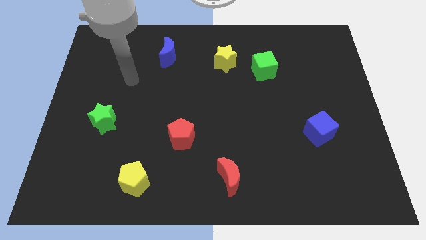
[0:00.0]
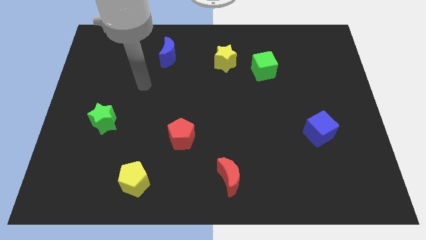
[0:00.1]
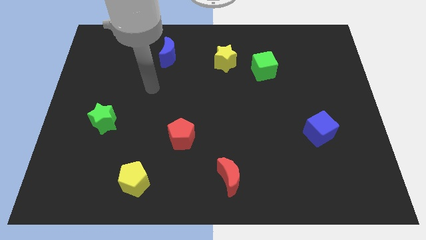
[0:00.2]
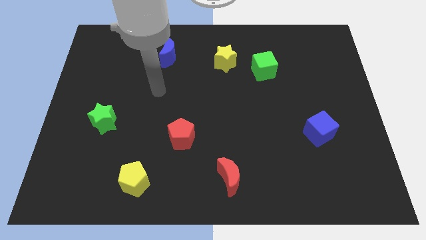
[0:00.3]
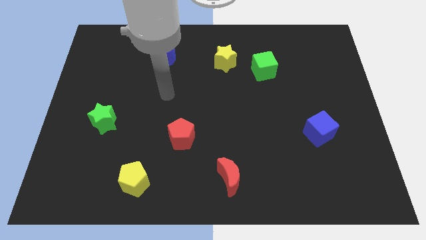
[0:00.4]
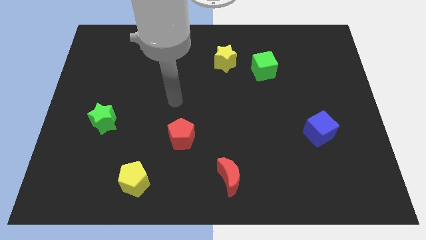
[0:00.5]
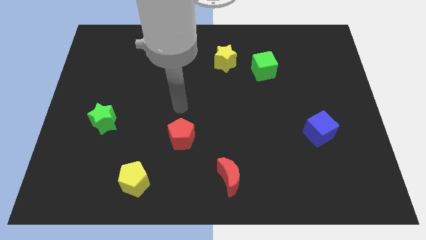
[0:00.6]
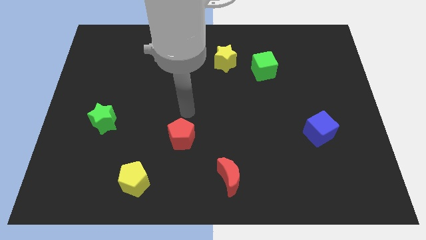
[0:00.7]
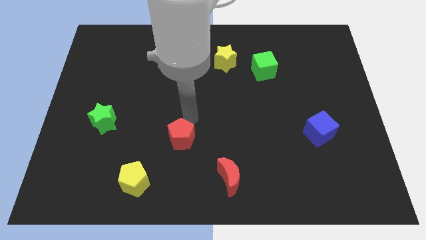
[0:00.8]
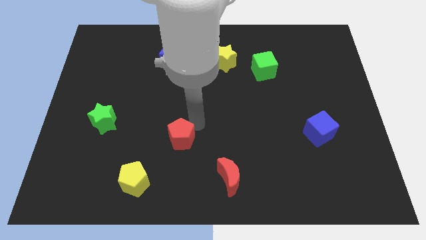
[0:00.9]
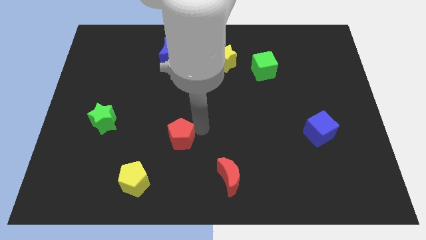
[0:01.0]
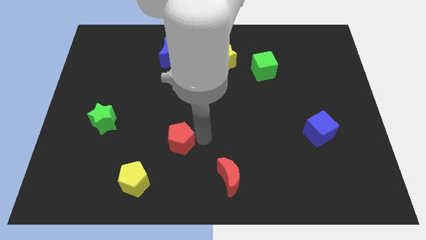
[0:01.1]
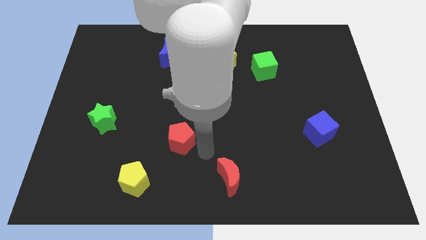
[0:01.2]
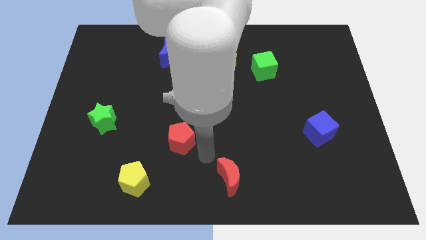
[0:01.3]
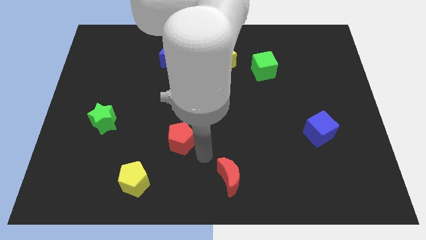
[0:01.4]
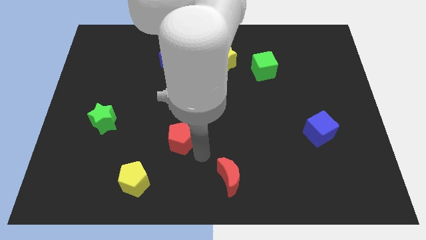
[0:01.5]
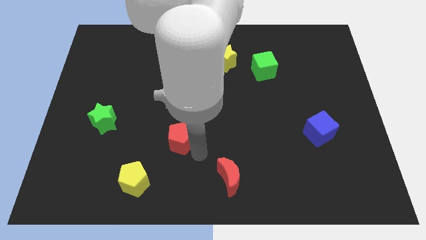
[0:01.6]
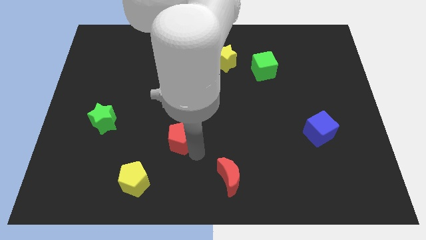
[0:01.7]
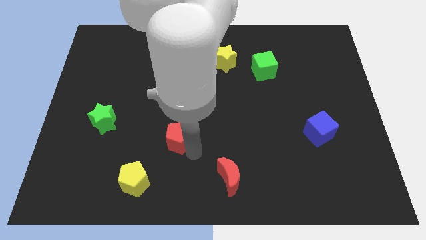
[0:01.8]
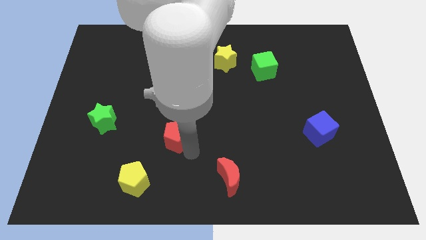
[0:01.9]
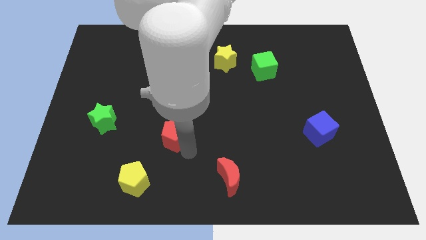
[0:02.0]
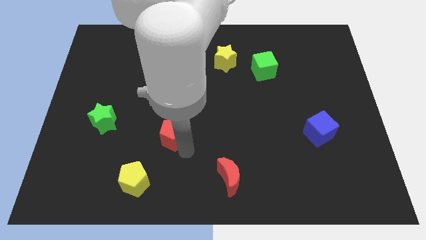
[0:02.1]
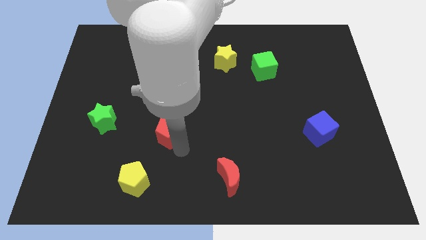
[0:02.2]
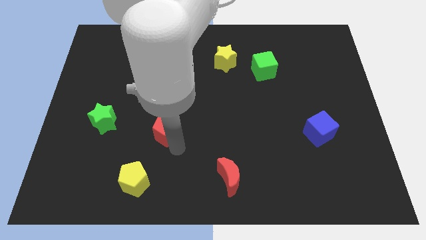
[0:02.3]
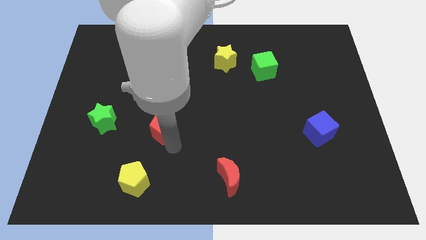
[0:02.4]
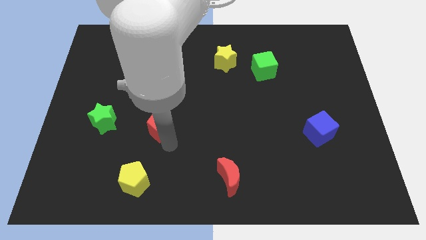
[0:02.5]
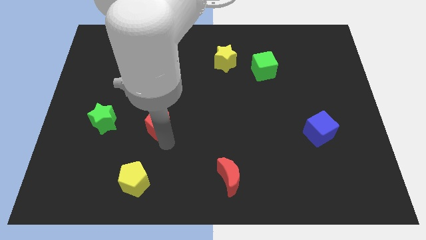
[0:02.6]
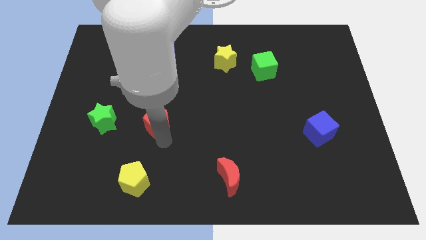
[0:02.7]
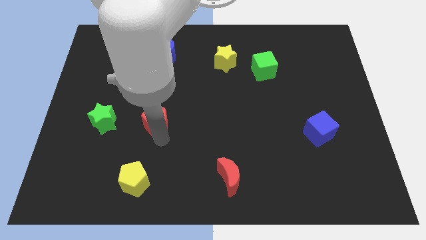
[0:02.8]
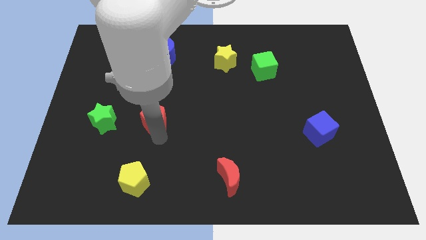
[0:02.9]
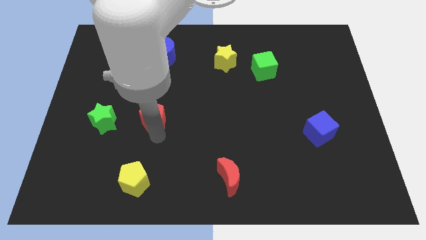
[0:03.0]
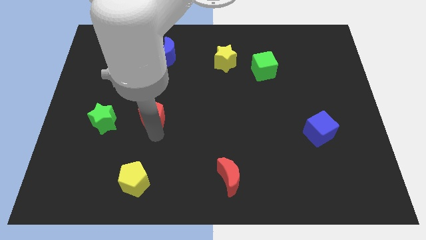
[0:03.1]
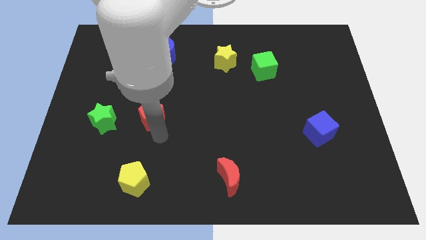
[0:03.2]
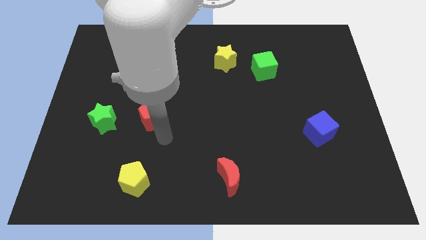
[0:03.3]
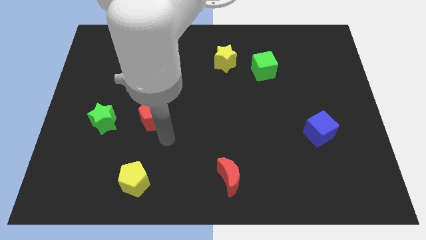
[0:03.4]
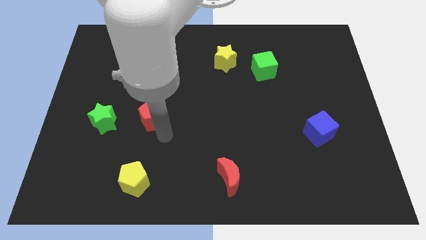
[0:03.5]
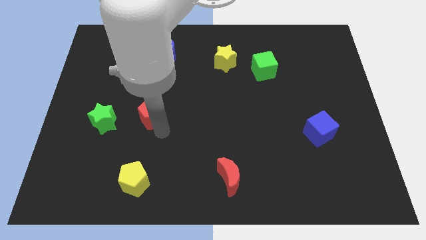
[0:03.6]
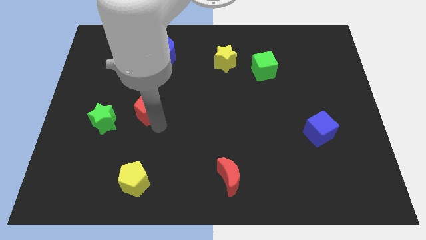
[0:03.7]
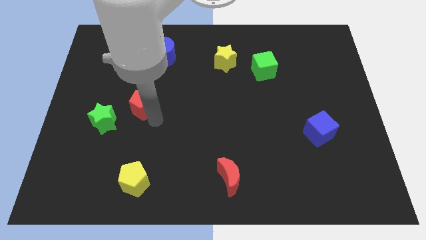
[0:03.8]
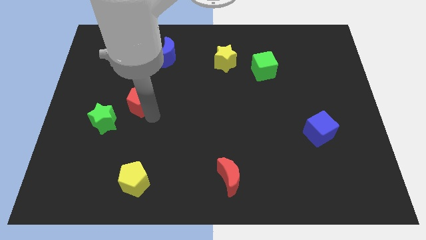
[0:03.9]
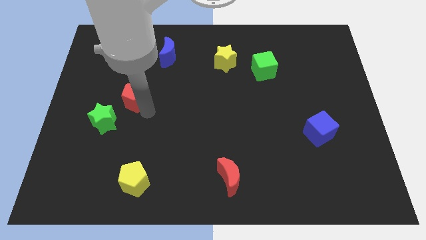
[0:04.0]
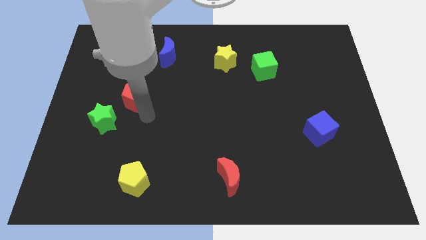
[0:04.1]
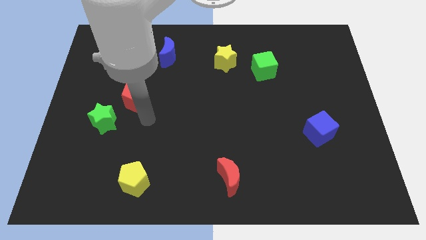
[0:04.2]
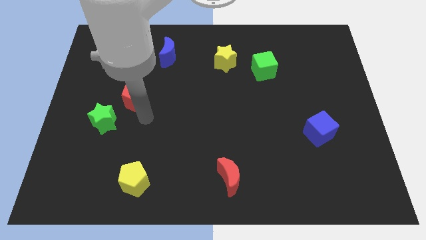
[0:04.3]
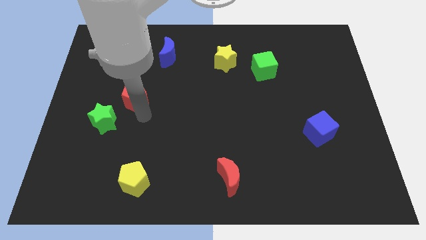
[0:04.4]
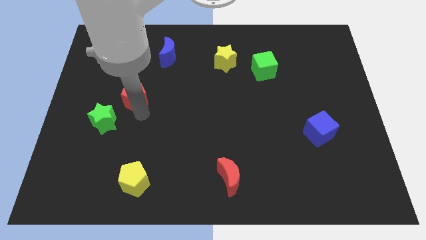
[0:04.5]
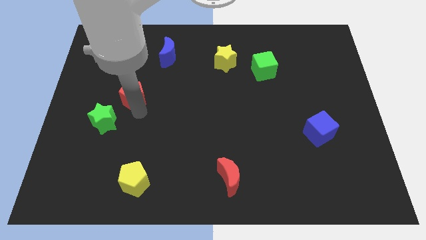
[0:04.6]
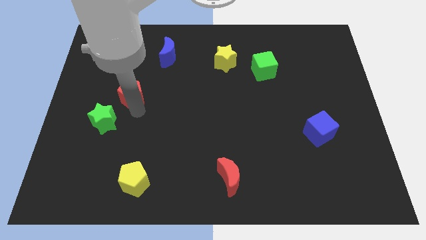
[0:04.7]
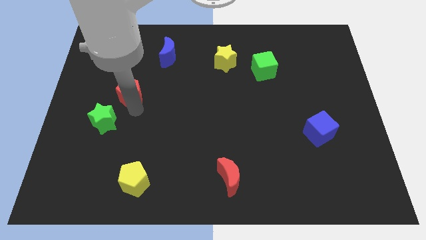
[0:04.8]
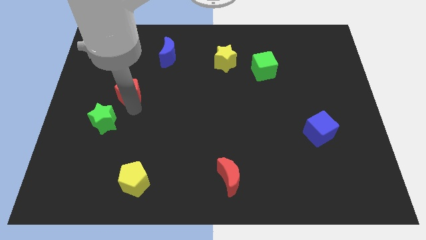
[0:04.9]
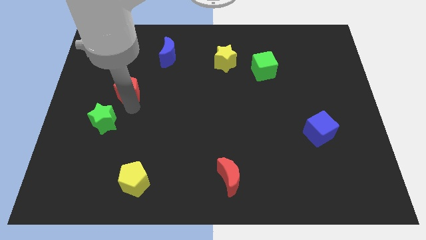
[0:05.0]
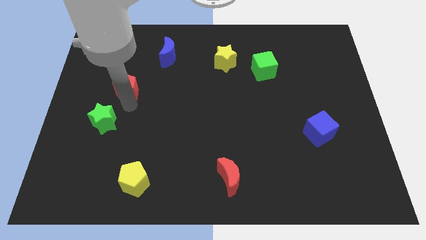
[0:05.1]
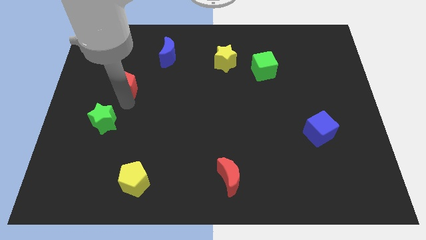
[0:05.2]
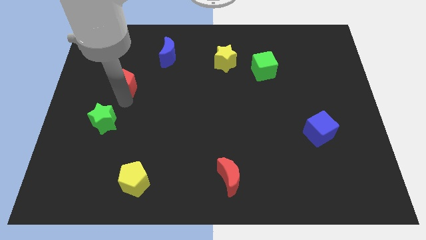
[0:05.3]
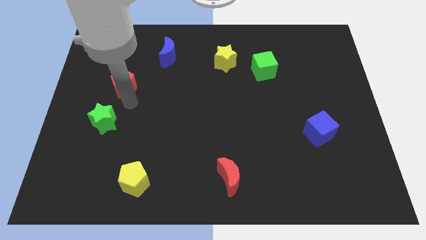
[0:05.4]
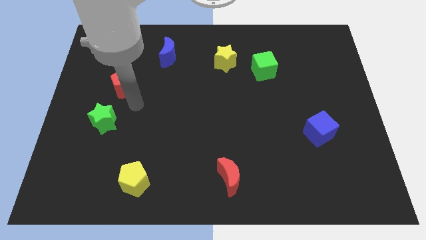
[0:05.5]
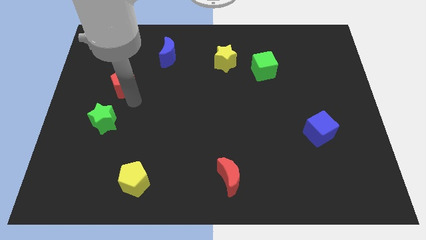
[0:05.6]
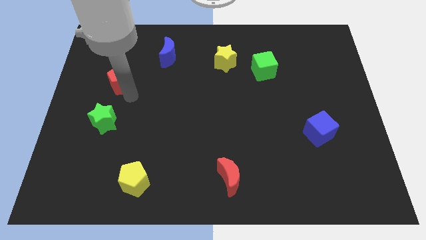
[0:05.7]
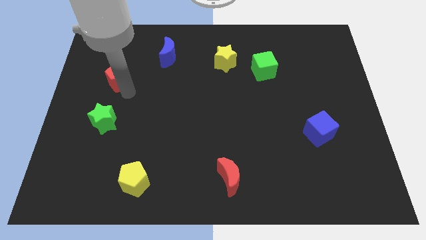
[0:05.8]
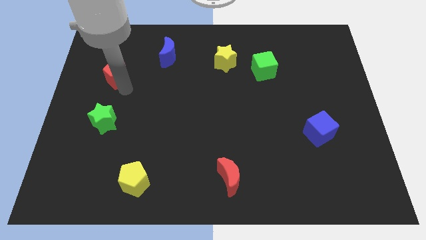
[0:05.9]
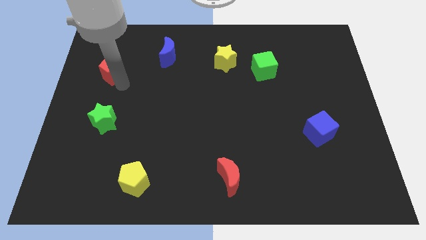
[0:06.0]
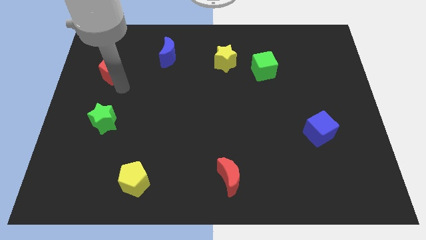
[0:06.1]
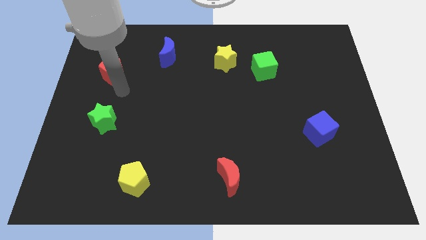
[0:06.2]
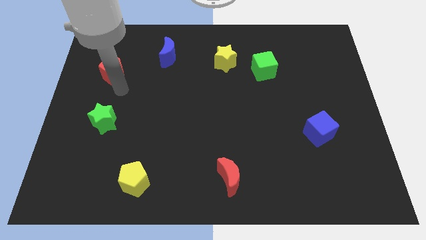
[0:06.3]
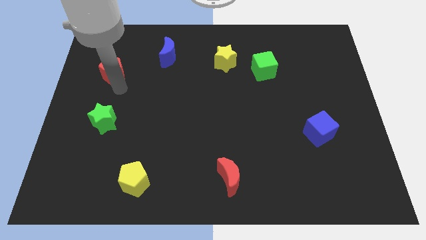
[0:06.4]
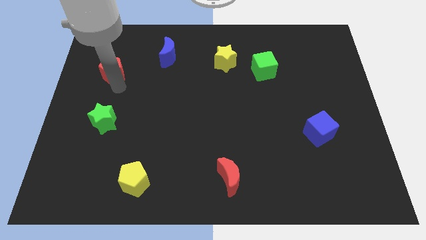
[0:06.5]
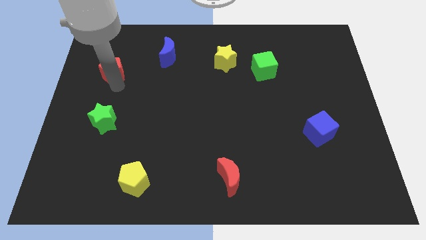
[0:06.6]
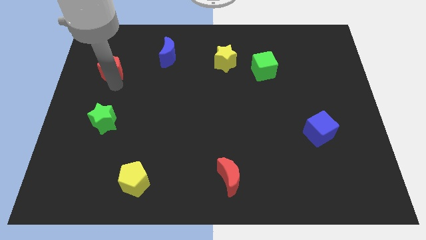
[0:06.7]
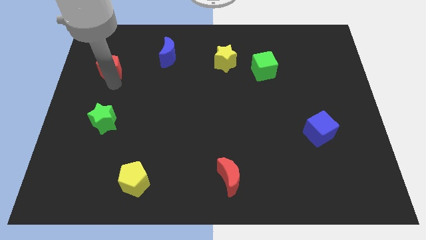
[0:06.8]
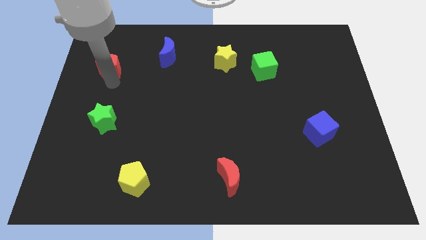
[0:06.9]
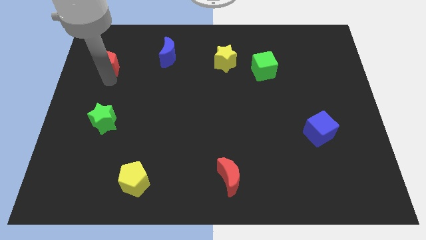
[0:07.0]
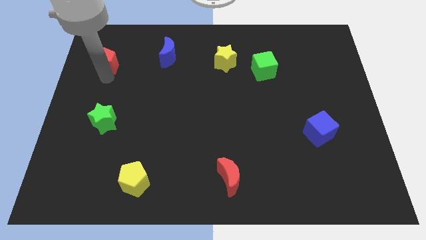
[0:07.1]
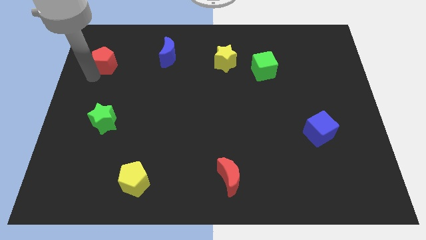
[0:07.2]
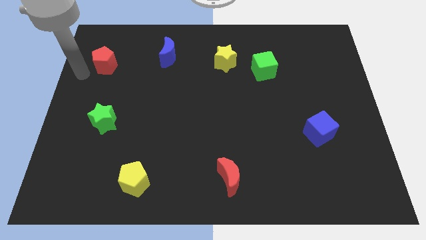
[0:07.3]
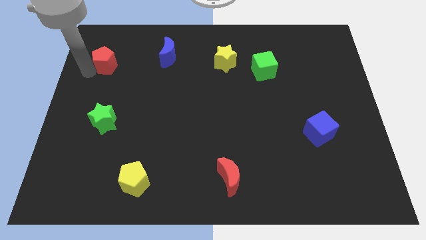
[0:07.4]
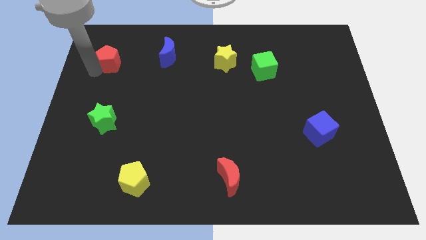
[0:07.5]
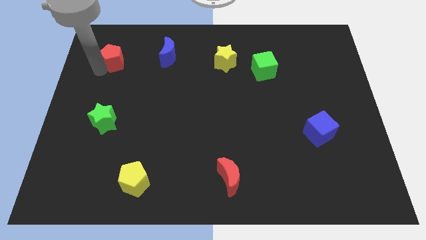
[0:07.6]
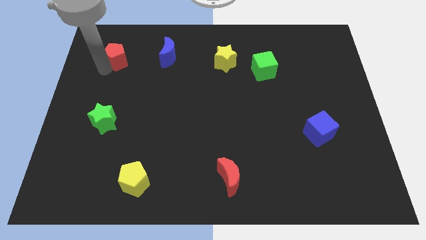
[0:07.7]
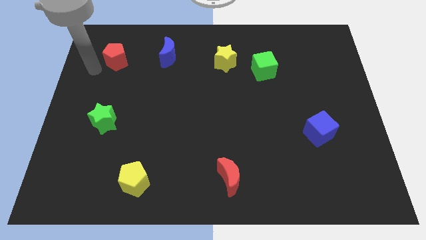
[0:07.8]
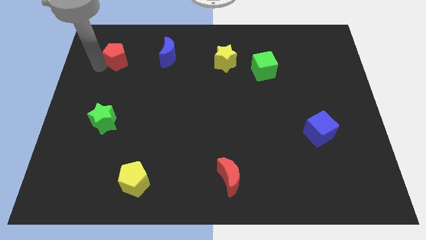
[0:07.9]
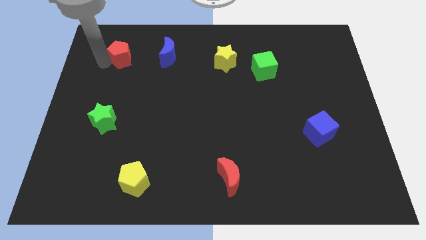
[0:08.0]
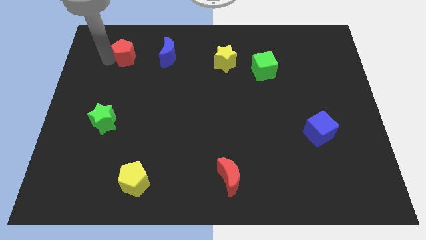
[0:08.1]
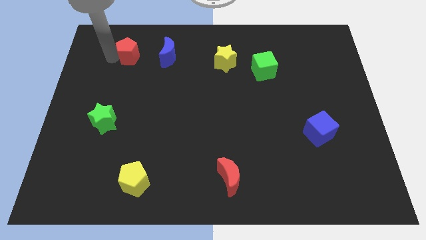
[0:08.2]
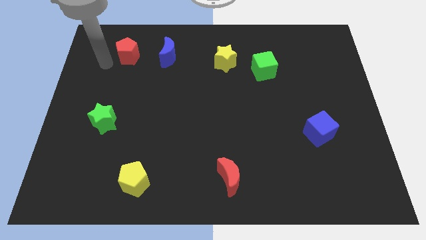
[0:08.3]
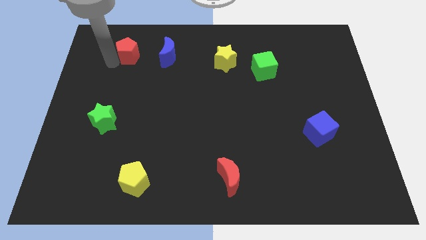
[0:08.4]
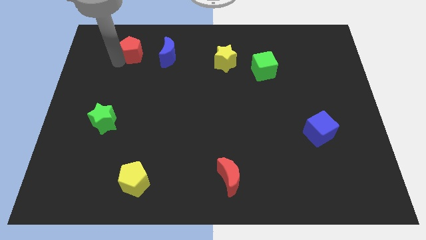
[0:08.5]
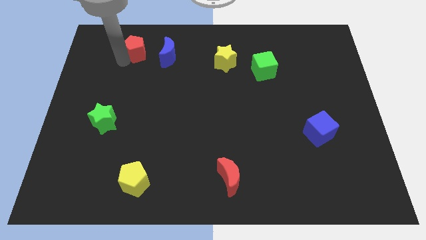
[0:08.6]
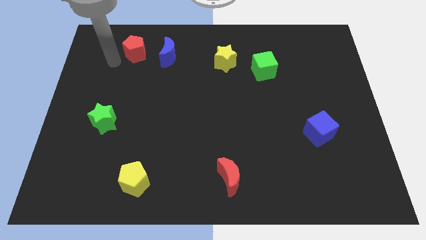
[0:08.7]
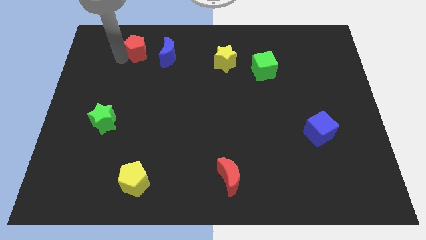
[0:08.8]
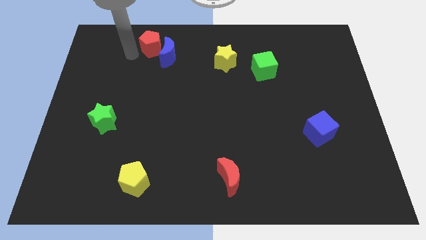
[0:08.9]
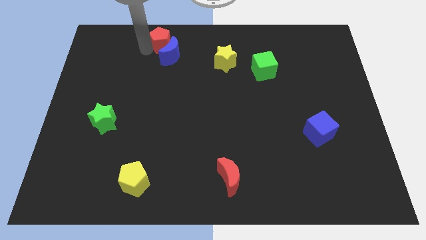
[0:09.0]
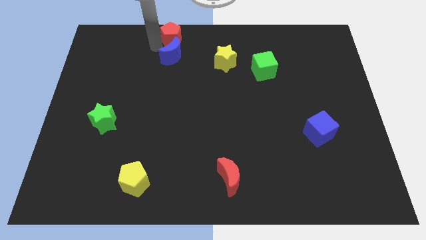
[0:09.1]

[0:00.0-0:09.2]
move the red pentagon to the towards your base
